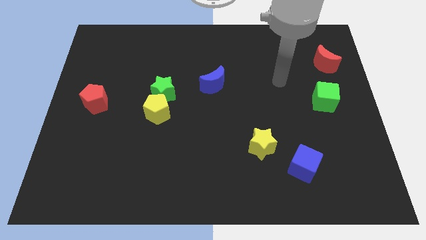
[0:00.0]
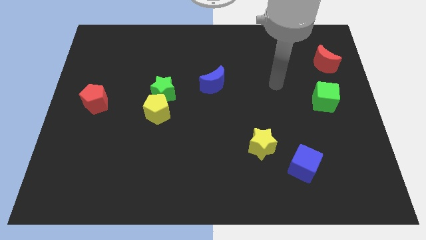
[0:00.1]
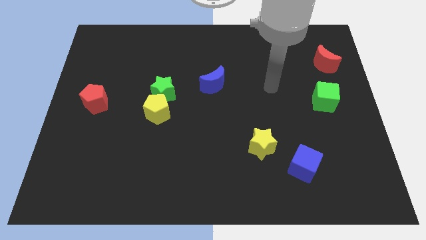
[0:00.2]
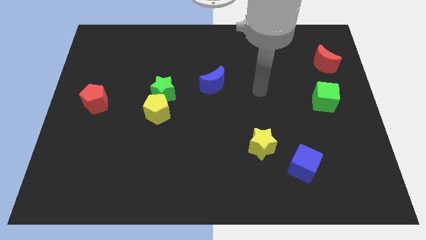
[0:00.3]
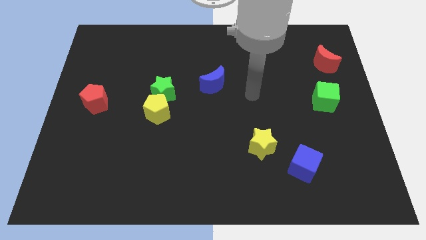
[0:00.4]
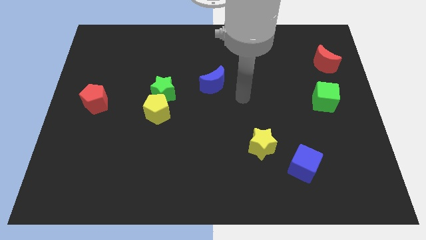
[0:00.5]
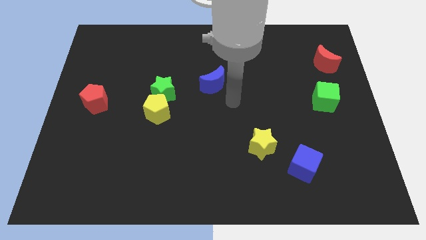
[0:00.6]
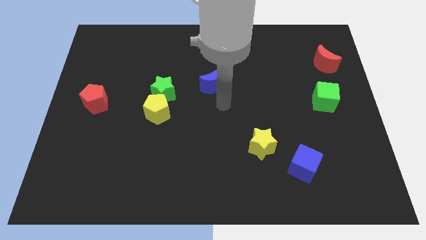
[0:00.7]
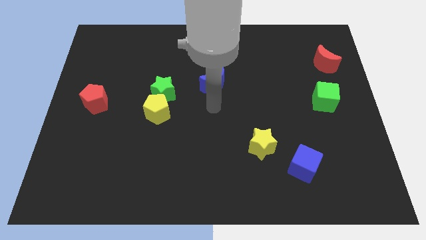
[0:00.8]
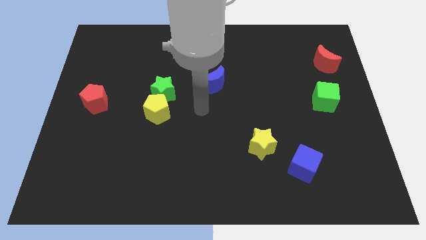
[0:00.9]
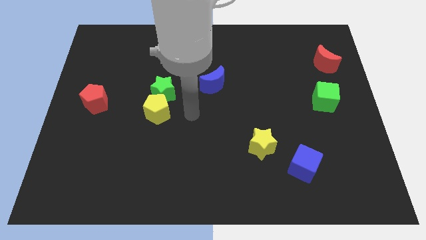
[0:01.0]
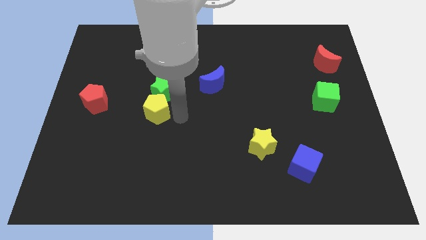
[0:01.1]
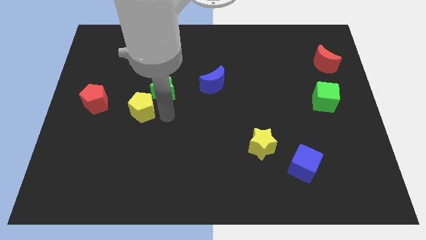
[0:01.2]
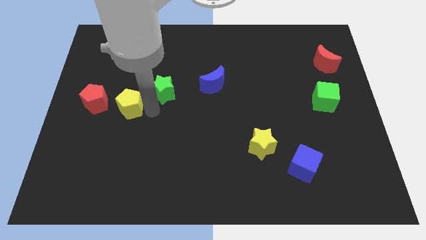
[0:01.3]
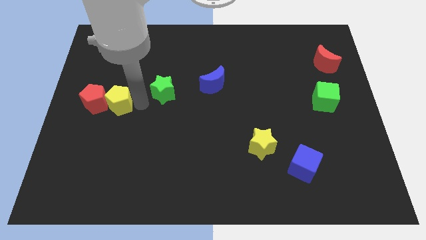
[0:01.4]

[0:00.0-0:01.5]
pull the green star apart from the yellow pentagon

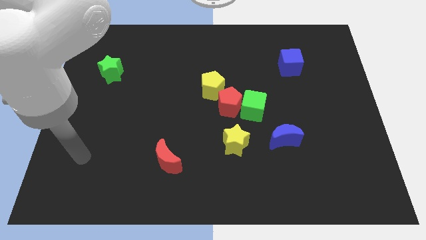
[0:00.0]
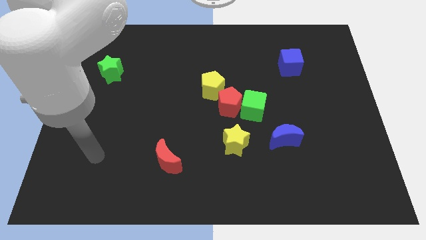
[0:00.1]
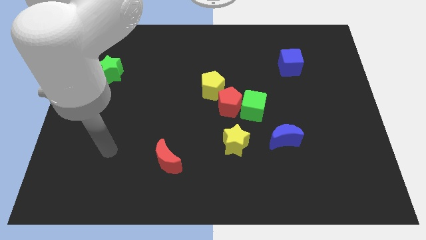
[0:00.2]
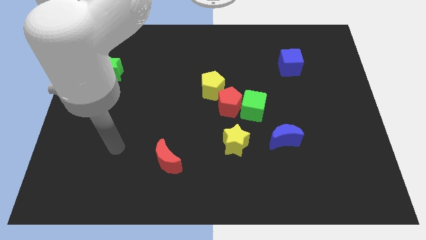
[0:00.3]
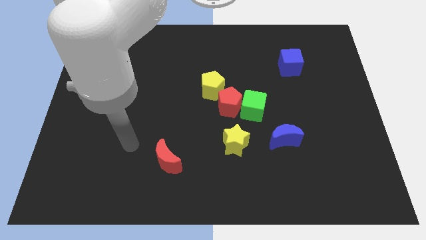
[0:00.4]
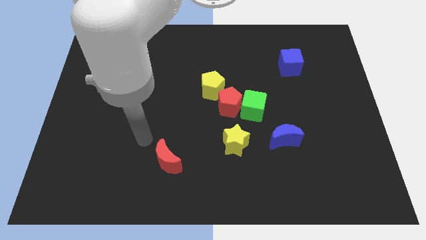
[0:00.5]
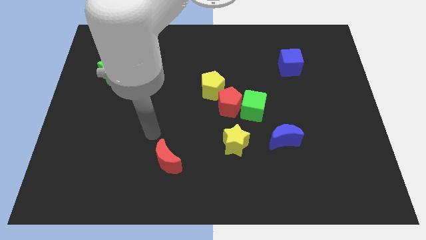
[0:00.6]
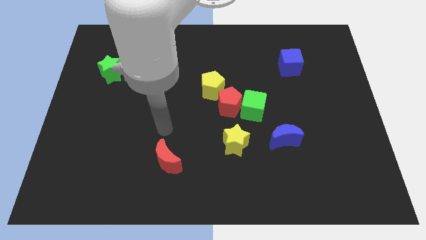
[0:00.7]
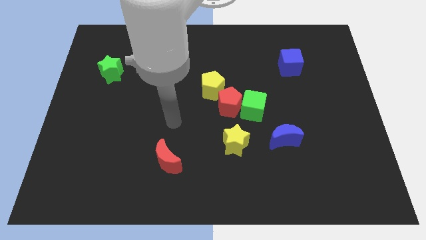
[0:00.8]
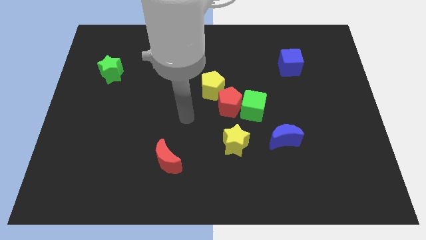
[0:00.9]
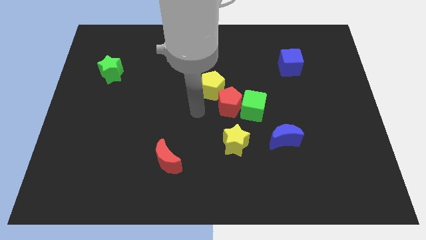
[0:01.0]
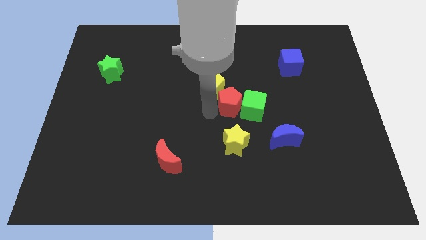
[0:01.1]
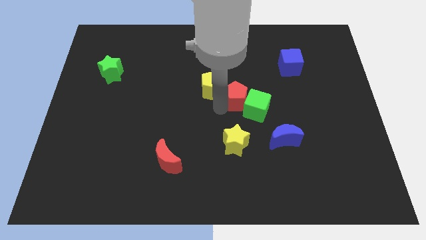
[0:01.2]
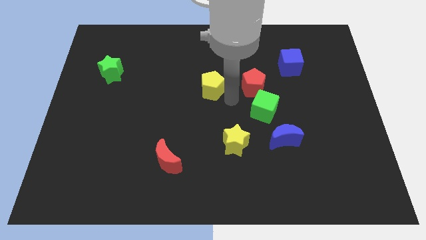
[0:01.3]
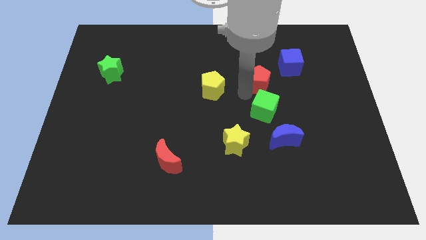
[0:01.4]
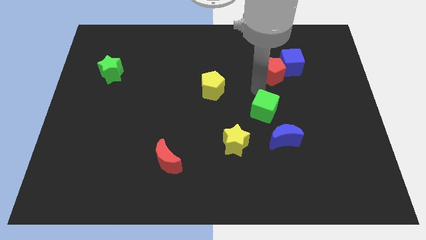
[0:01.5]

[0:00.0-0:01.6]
separate the green cube from the red pentagon

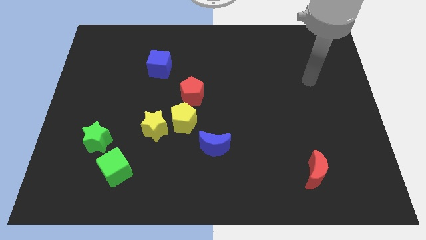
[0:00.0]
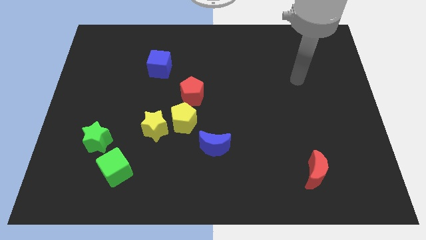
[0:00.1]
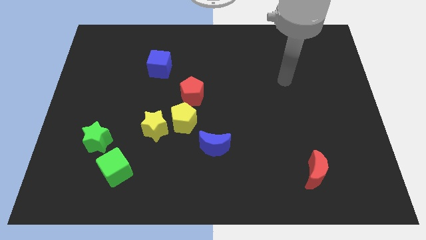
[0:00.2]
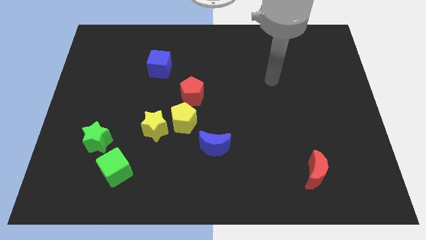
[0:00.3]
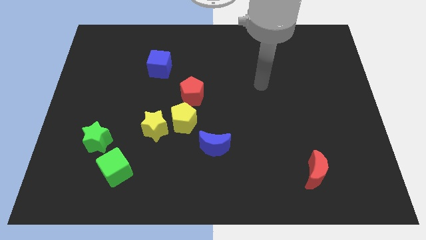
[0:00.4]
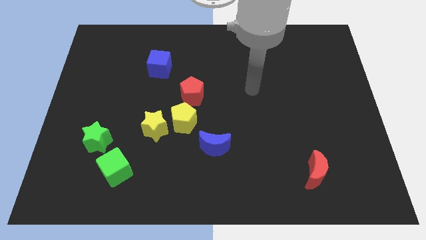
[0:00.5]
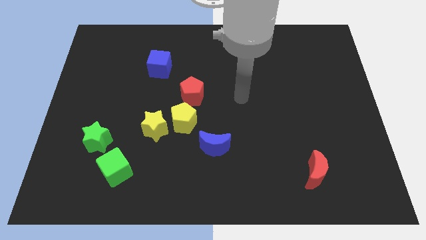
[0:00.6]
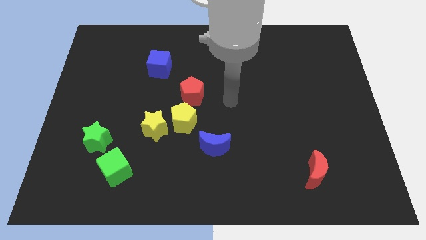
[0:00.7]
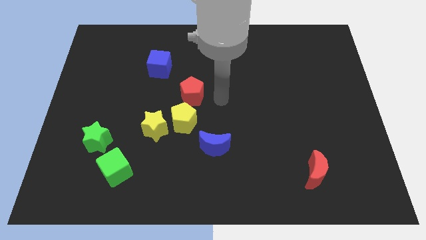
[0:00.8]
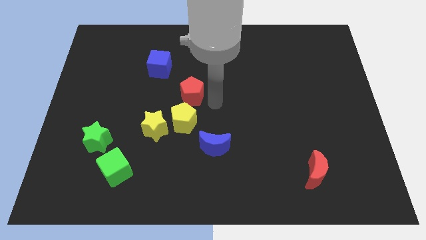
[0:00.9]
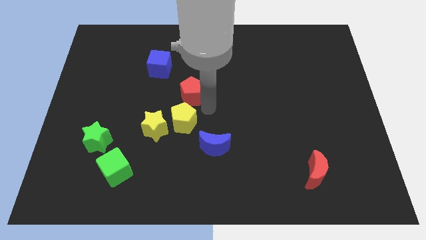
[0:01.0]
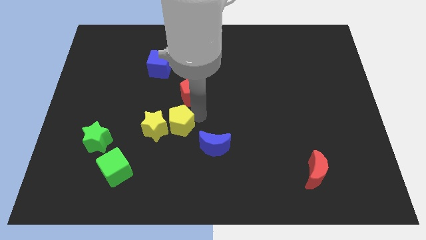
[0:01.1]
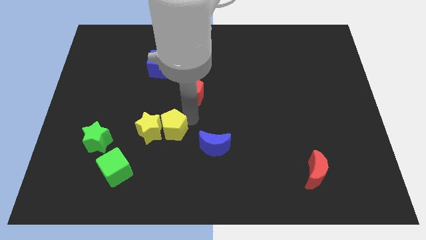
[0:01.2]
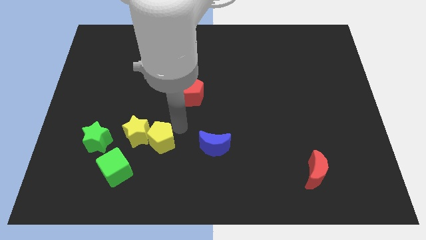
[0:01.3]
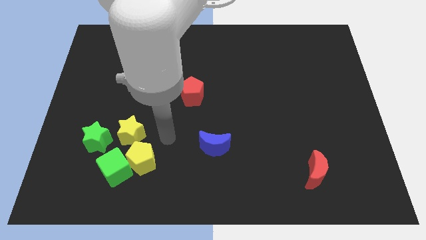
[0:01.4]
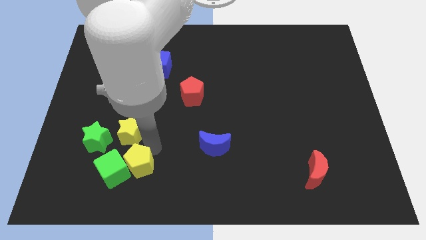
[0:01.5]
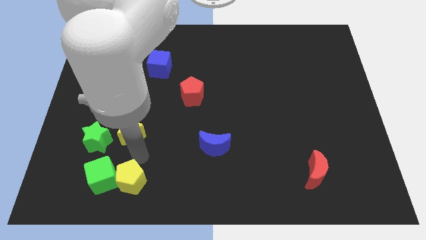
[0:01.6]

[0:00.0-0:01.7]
pull the yellow star apart from the yellow pentagon

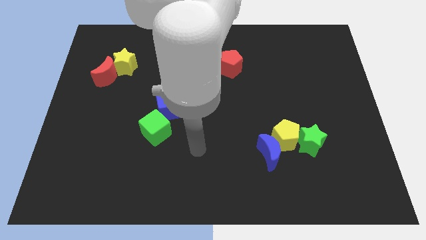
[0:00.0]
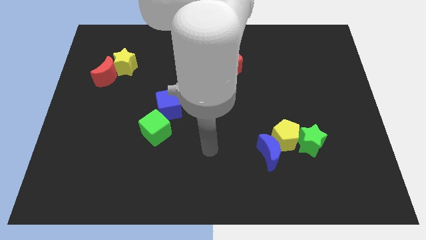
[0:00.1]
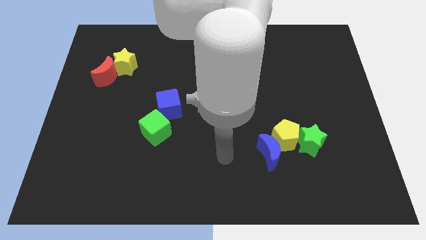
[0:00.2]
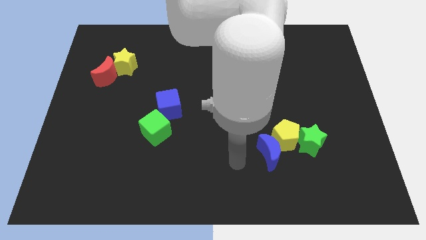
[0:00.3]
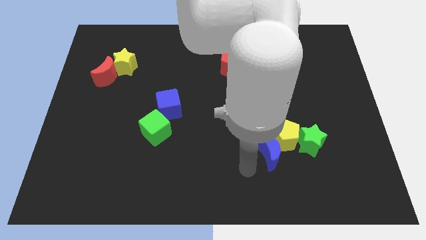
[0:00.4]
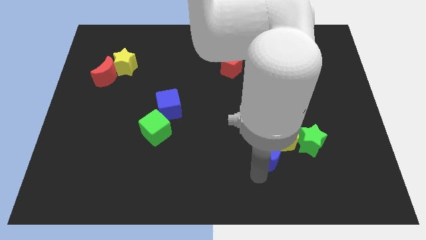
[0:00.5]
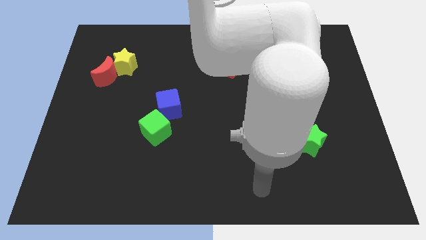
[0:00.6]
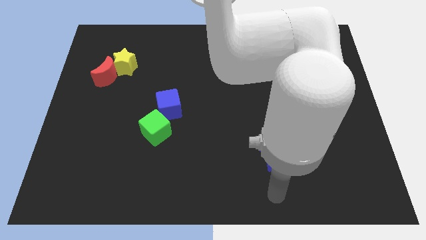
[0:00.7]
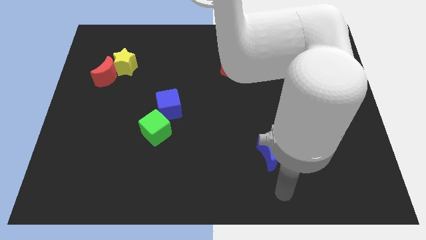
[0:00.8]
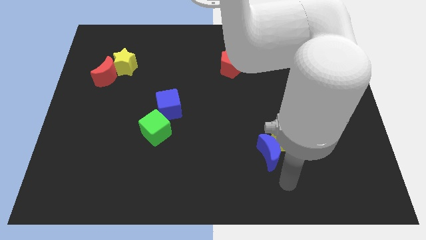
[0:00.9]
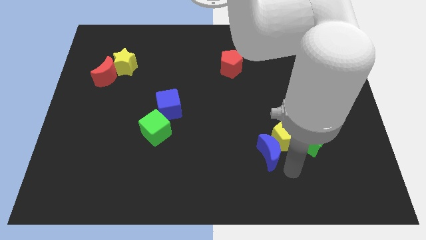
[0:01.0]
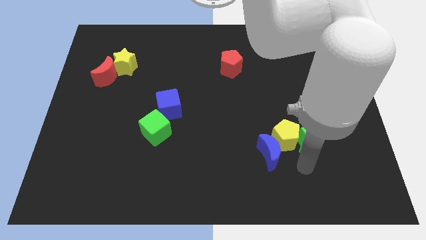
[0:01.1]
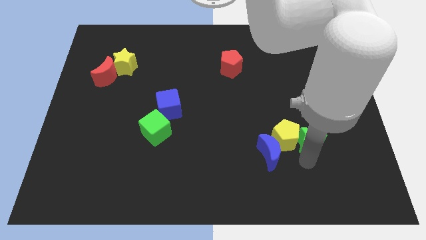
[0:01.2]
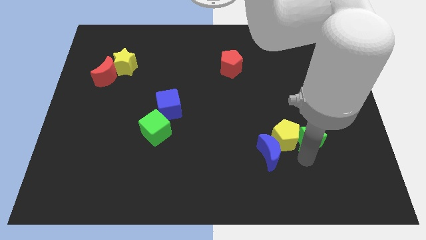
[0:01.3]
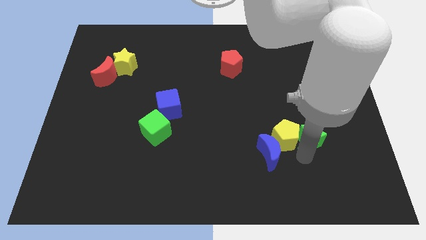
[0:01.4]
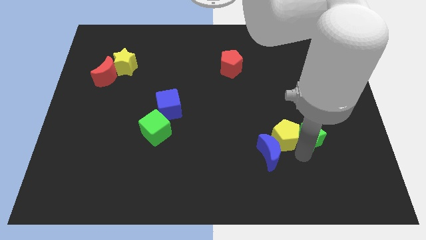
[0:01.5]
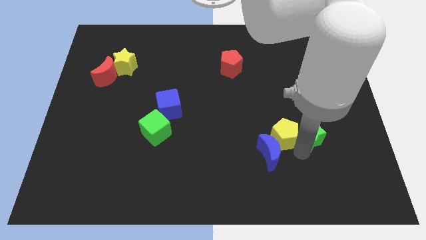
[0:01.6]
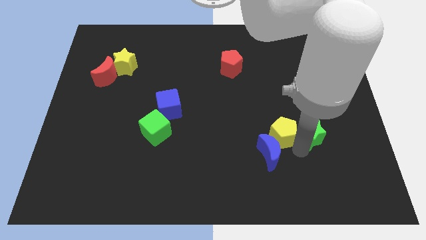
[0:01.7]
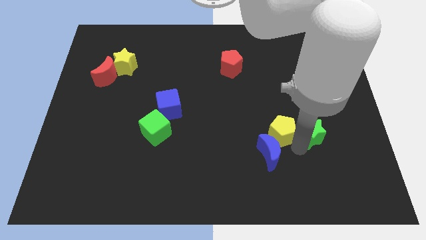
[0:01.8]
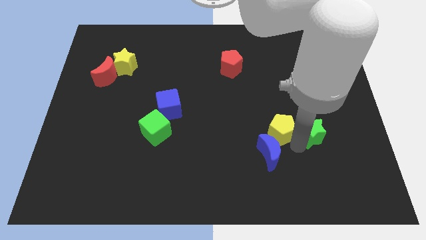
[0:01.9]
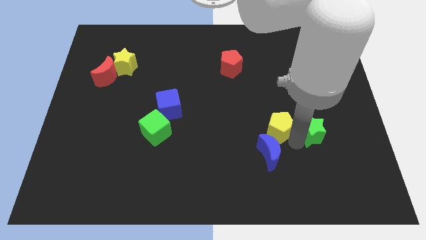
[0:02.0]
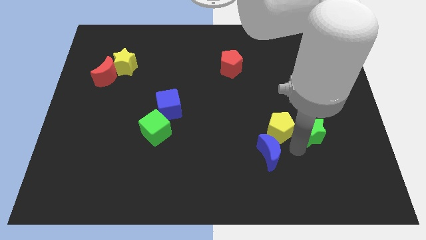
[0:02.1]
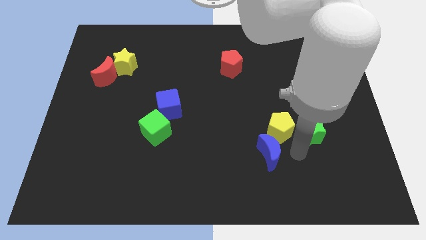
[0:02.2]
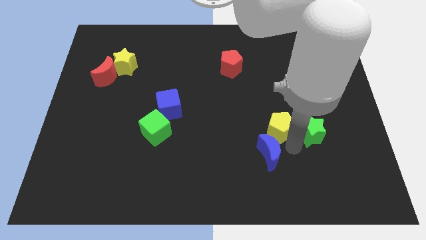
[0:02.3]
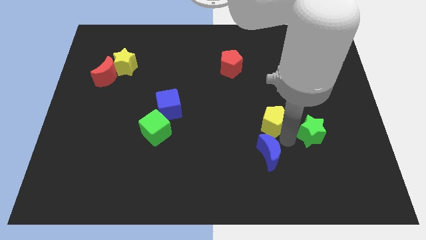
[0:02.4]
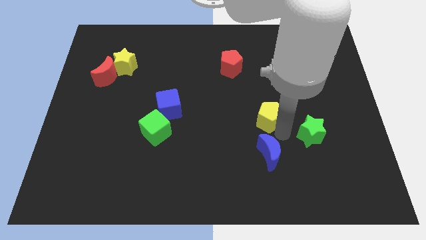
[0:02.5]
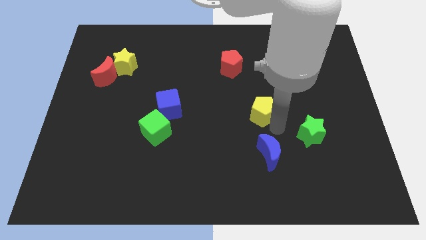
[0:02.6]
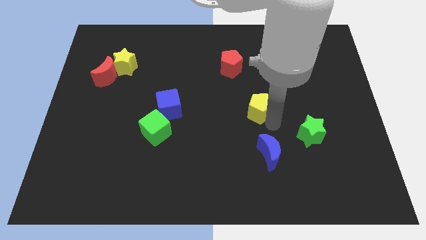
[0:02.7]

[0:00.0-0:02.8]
move the yellow pentagon away from the blue moon and green star

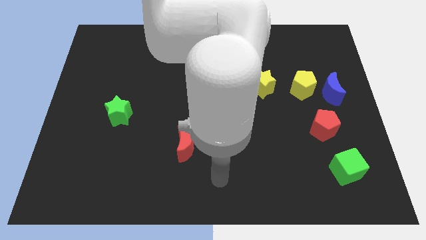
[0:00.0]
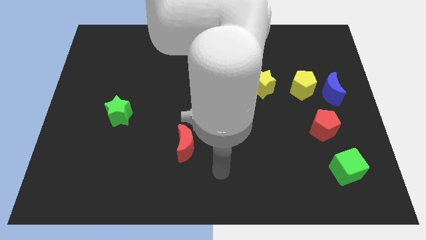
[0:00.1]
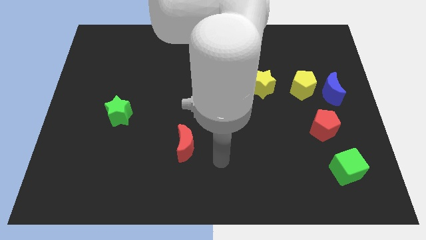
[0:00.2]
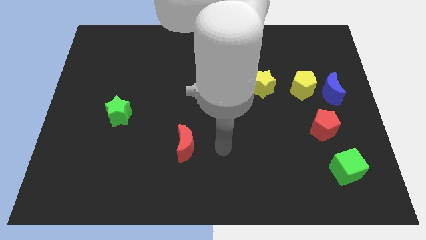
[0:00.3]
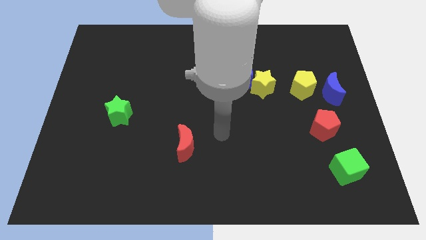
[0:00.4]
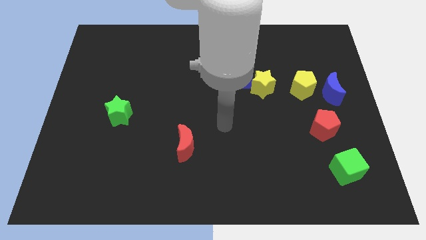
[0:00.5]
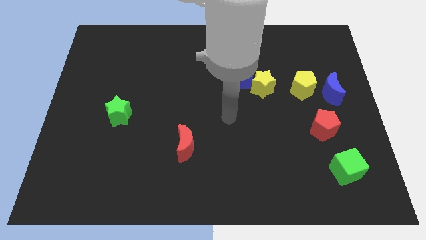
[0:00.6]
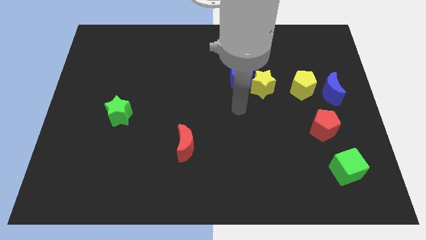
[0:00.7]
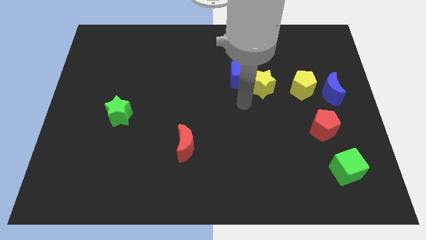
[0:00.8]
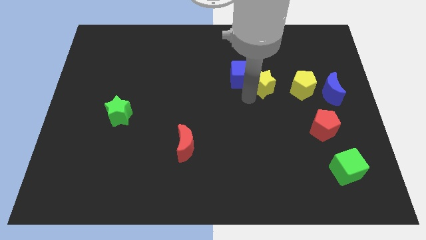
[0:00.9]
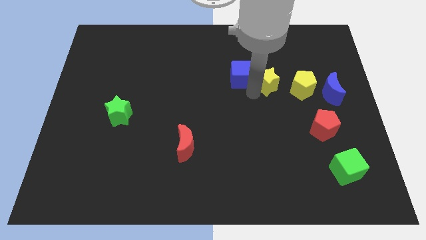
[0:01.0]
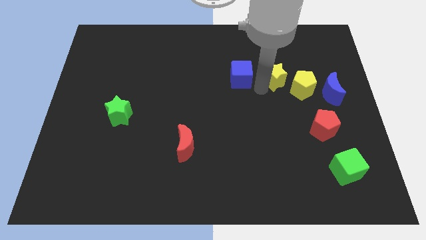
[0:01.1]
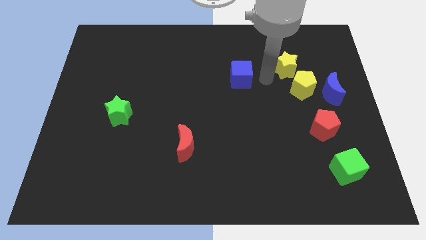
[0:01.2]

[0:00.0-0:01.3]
separate the blue cube from the yellow star

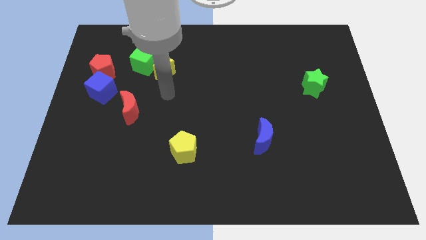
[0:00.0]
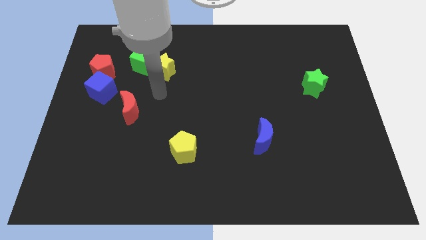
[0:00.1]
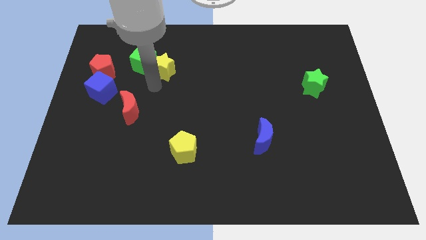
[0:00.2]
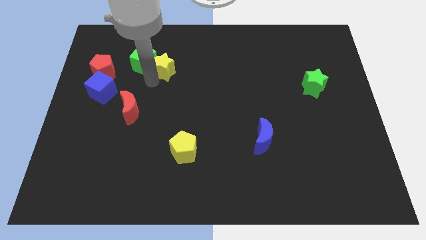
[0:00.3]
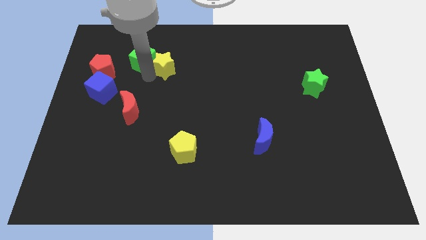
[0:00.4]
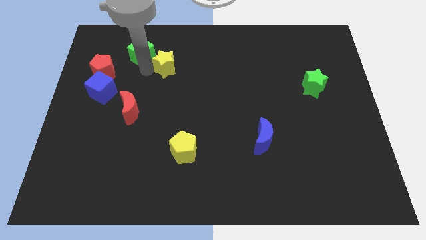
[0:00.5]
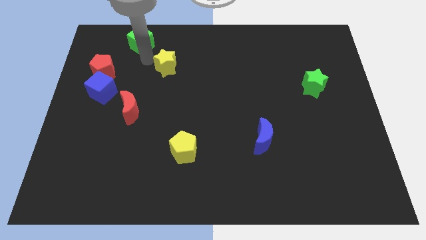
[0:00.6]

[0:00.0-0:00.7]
separate the yellow star from the green cube
